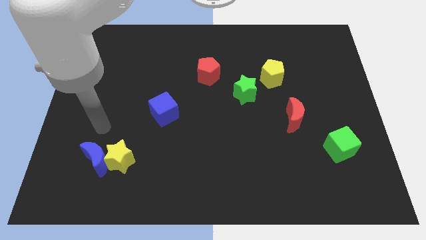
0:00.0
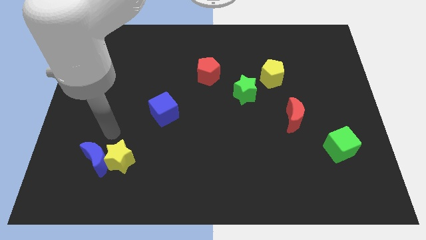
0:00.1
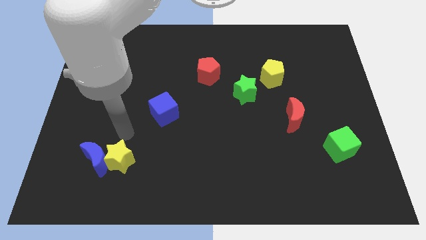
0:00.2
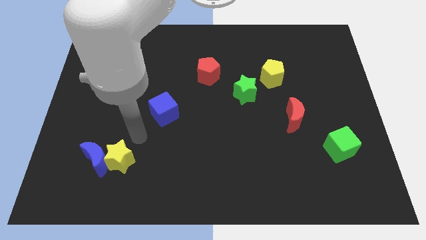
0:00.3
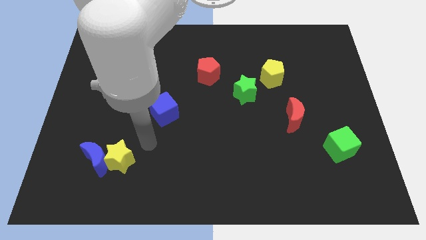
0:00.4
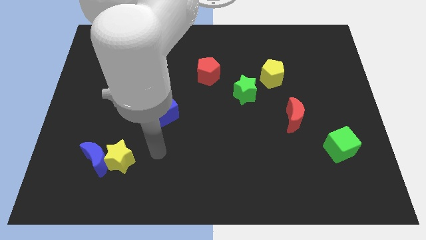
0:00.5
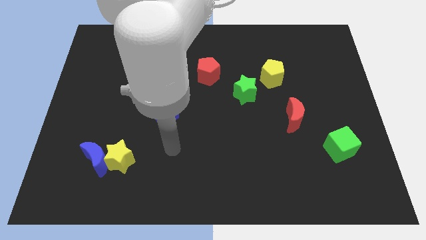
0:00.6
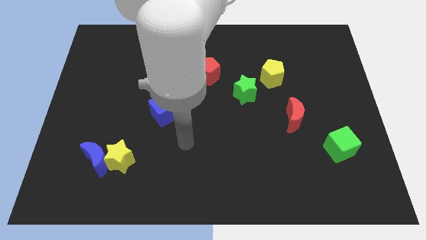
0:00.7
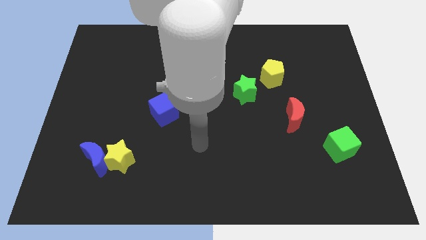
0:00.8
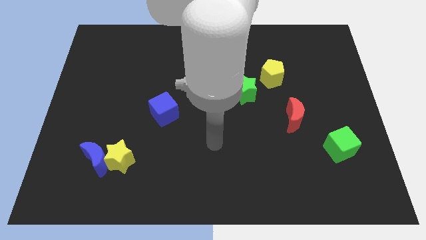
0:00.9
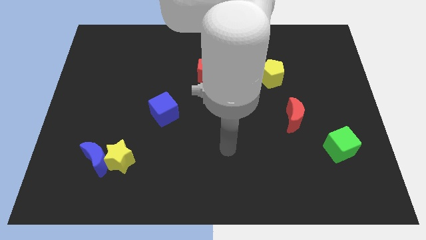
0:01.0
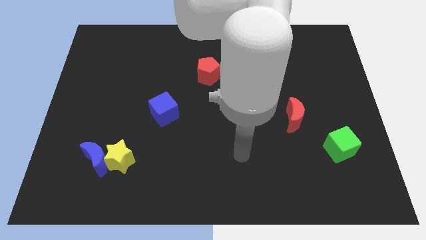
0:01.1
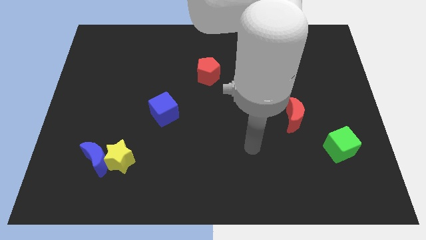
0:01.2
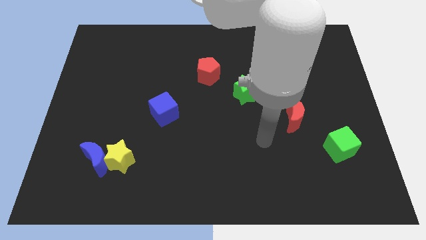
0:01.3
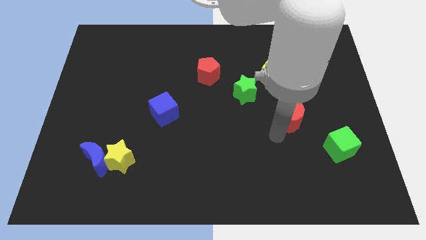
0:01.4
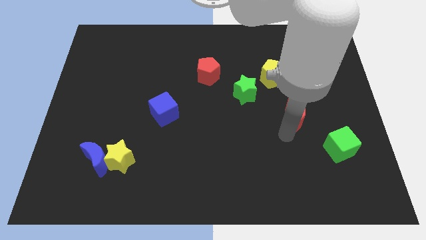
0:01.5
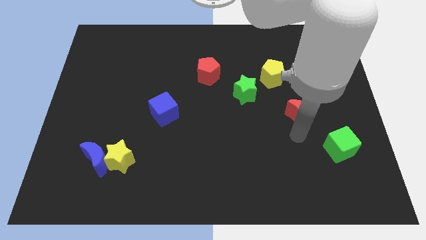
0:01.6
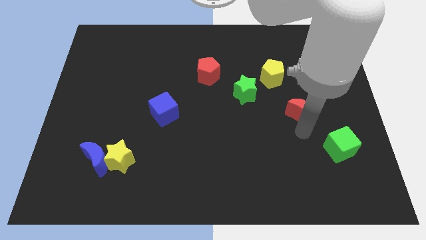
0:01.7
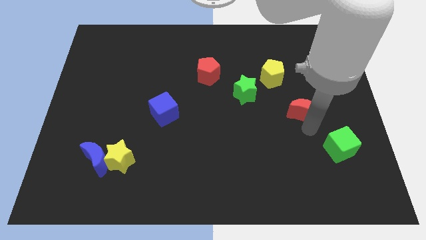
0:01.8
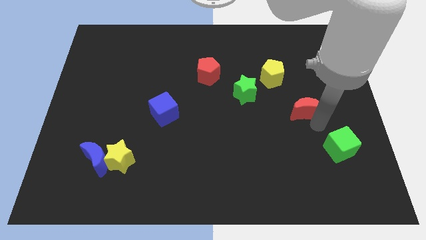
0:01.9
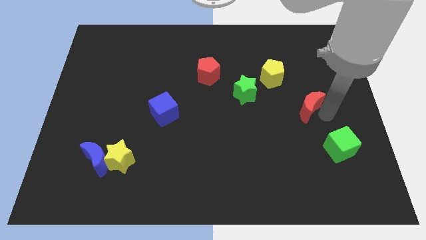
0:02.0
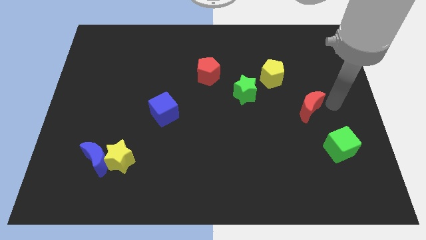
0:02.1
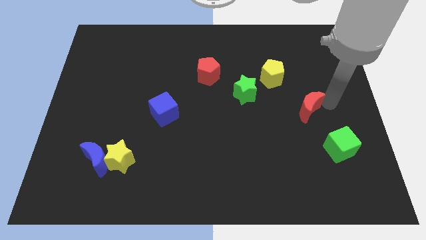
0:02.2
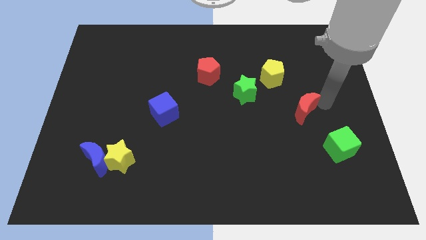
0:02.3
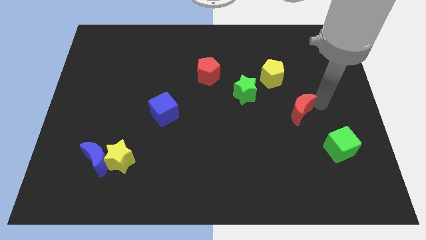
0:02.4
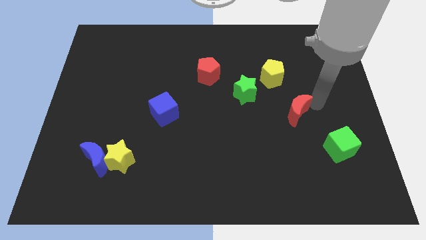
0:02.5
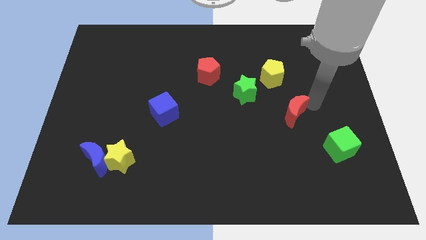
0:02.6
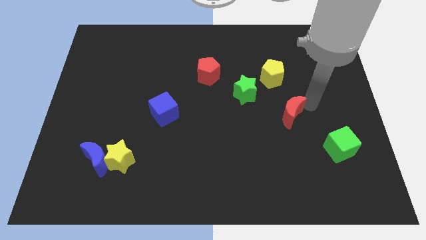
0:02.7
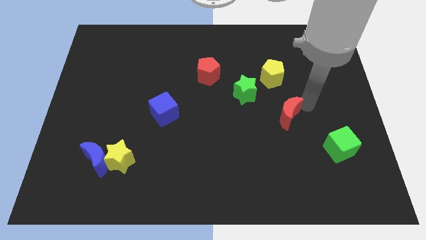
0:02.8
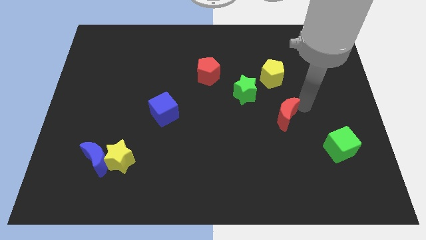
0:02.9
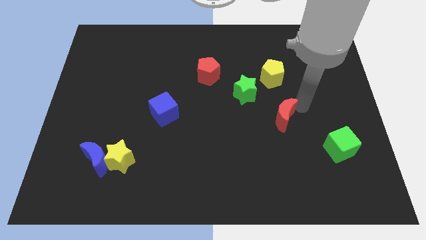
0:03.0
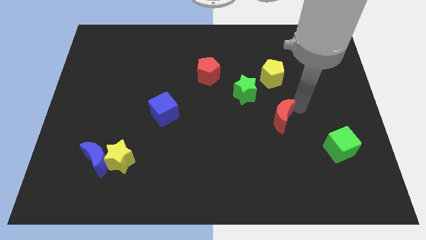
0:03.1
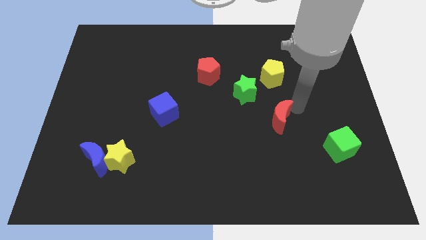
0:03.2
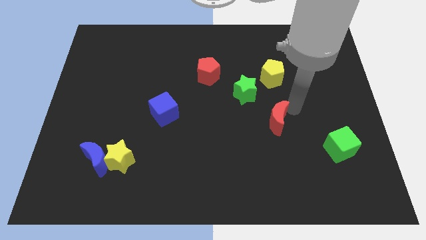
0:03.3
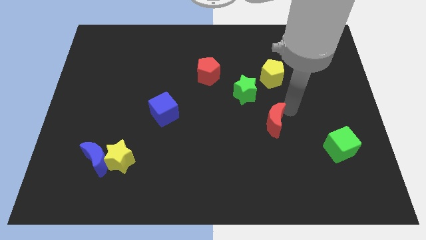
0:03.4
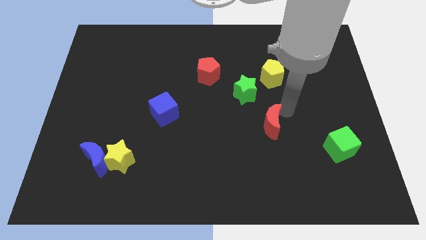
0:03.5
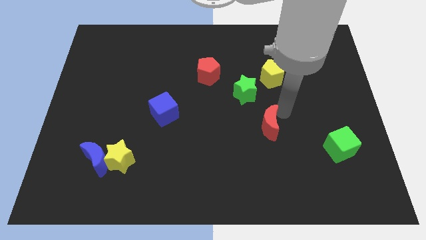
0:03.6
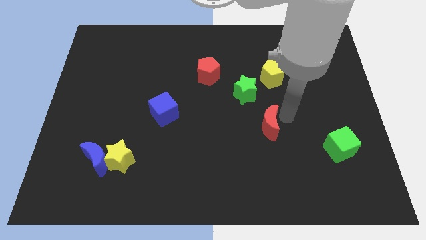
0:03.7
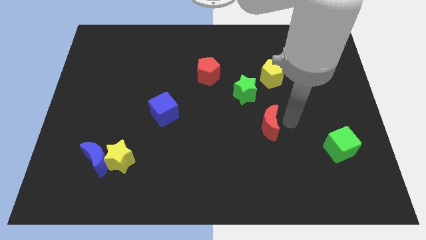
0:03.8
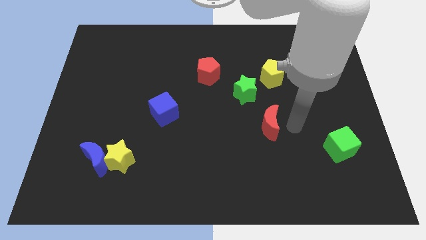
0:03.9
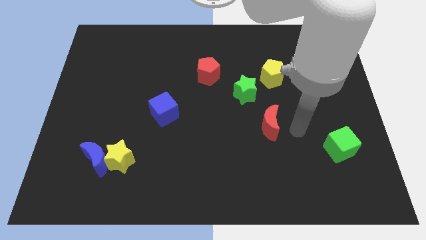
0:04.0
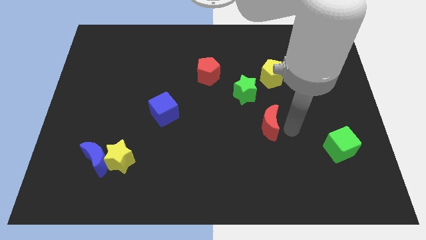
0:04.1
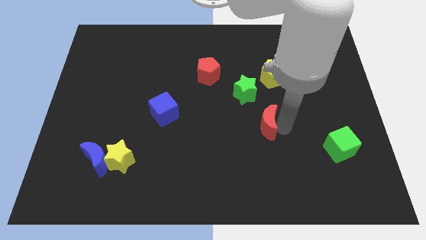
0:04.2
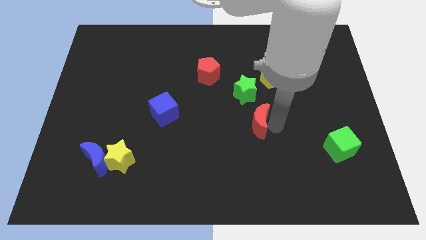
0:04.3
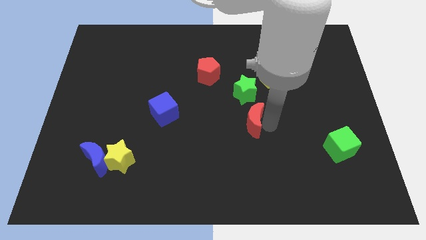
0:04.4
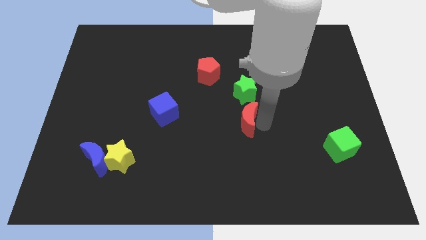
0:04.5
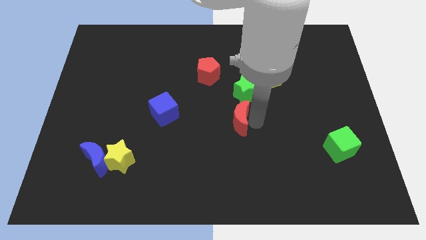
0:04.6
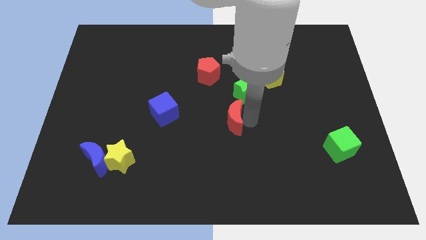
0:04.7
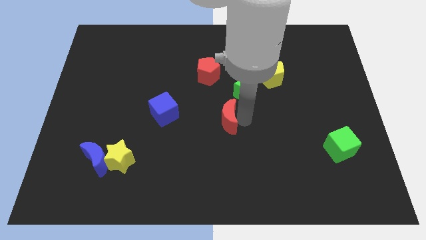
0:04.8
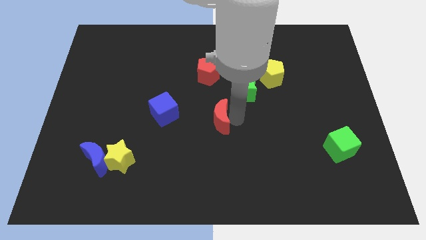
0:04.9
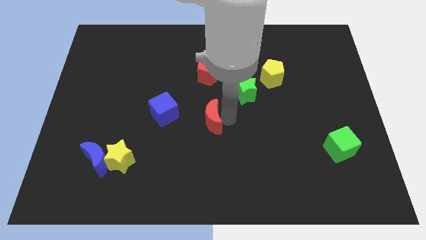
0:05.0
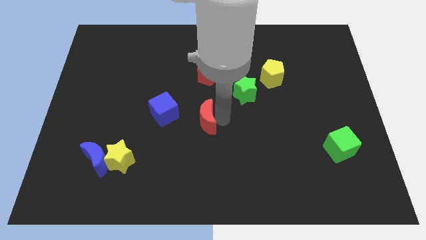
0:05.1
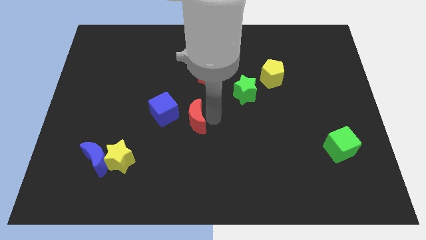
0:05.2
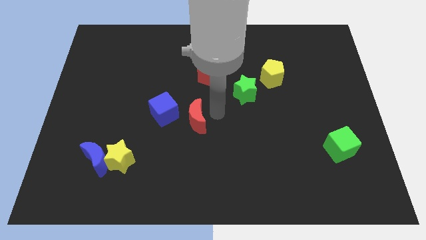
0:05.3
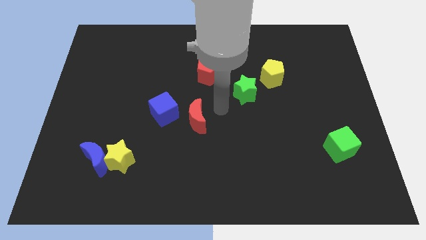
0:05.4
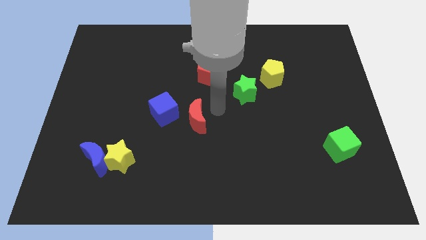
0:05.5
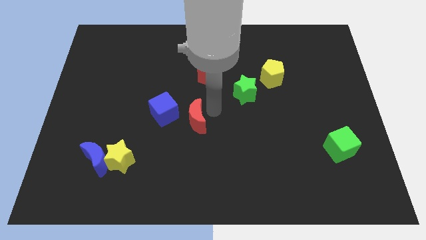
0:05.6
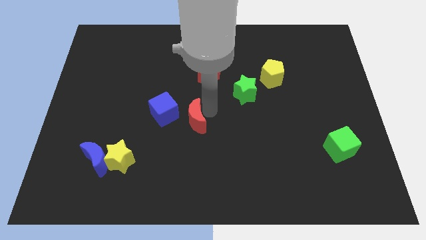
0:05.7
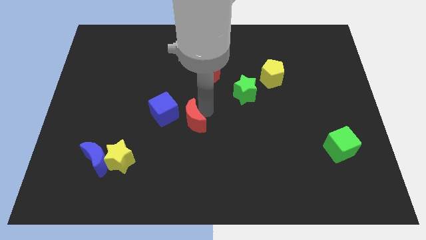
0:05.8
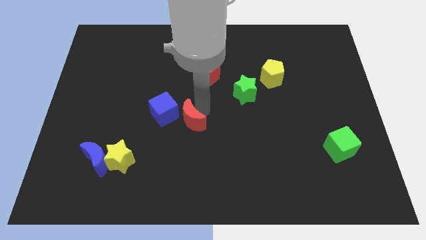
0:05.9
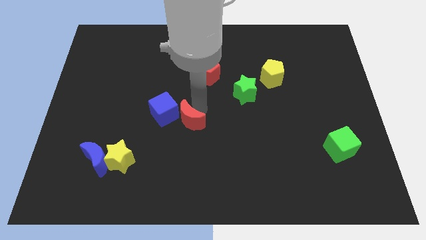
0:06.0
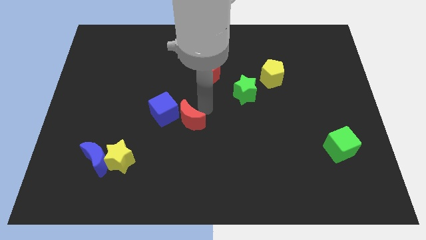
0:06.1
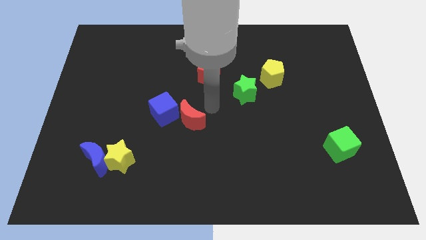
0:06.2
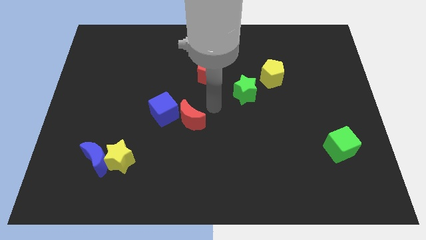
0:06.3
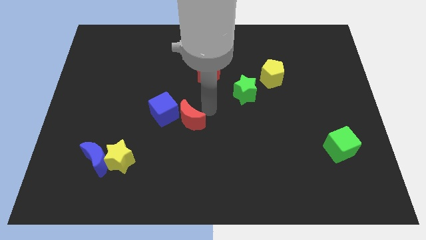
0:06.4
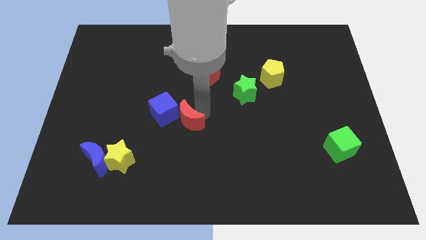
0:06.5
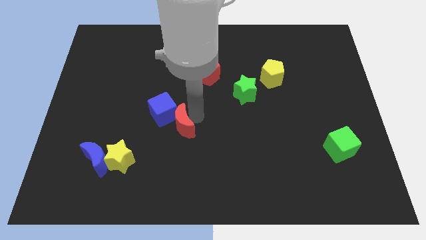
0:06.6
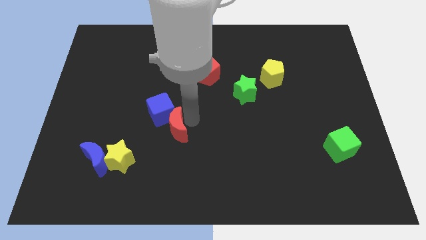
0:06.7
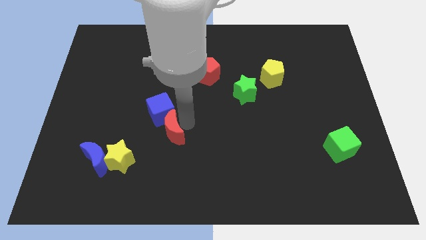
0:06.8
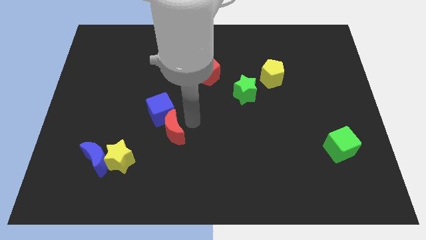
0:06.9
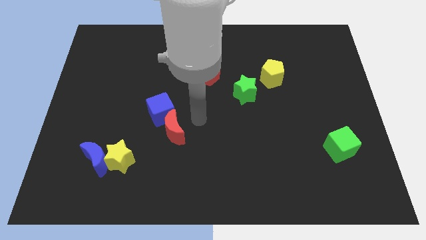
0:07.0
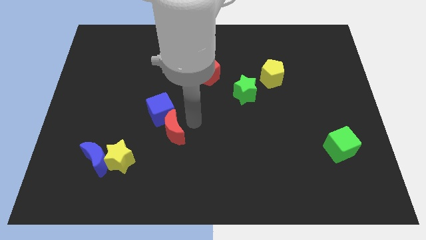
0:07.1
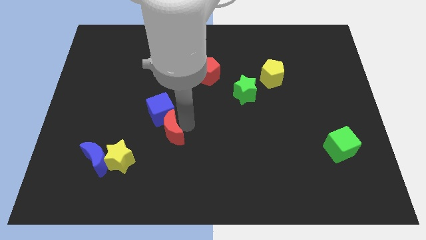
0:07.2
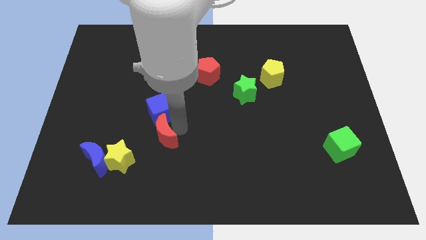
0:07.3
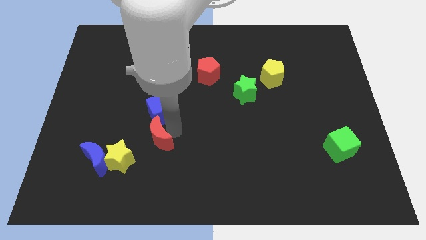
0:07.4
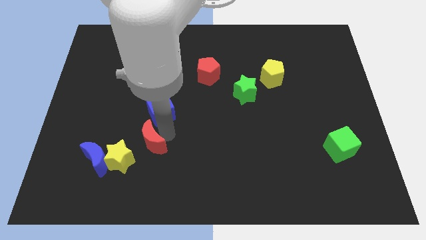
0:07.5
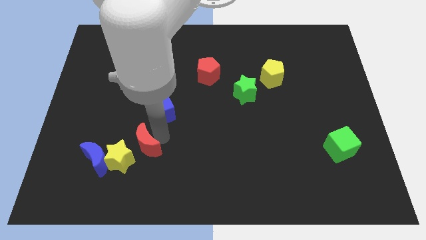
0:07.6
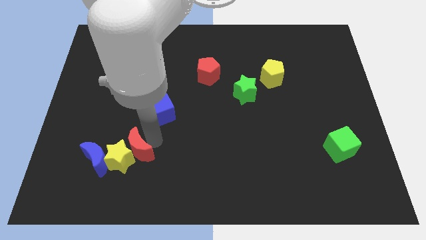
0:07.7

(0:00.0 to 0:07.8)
slide the red moon next to the yellow star
